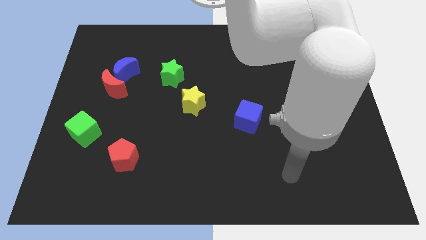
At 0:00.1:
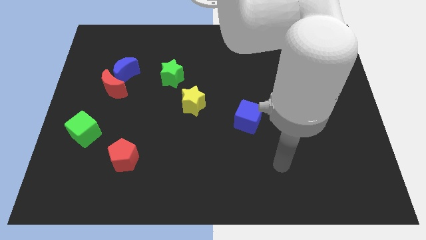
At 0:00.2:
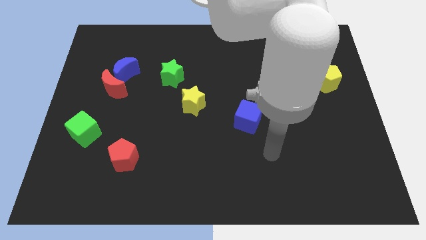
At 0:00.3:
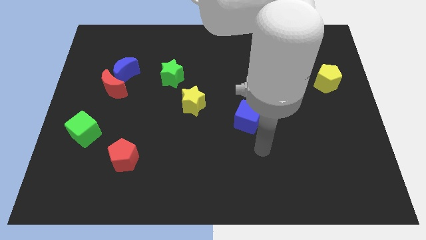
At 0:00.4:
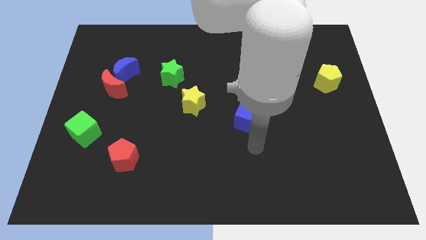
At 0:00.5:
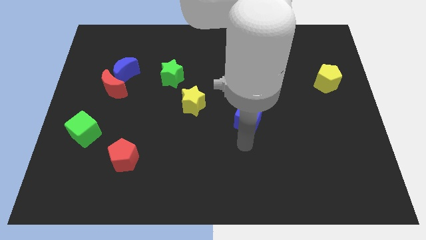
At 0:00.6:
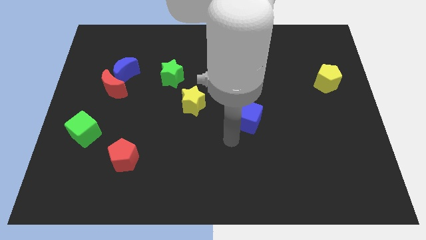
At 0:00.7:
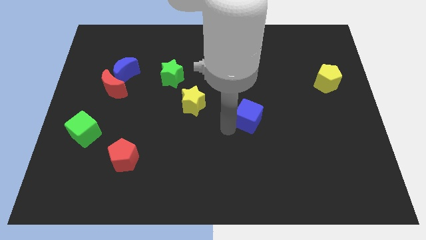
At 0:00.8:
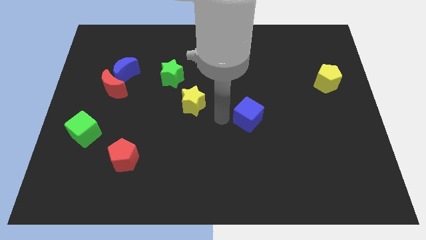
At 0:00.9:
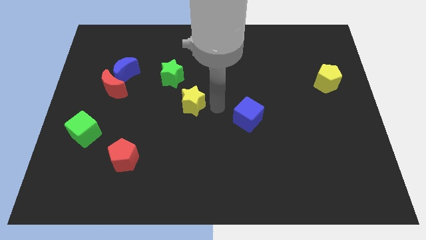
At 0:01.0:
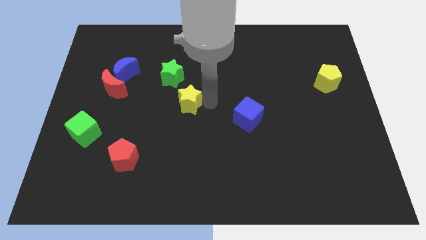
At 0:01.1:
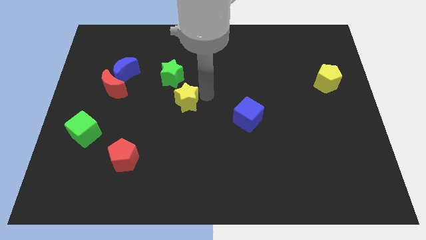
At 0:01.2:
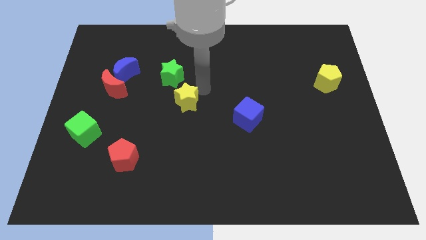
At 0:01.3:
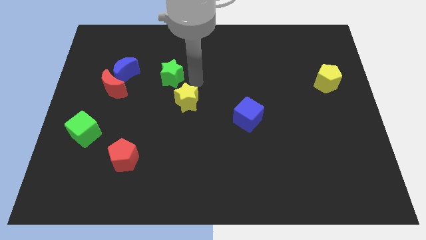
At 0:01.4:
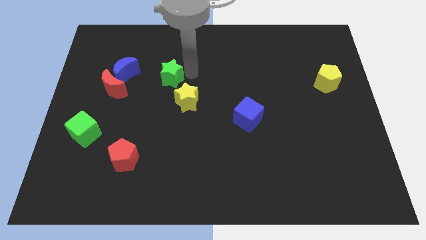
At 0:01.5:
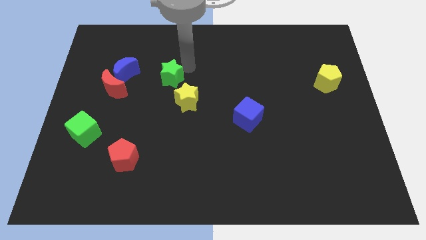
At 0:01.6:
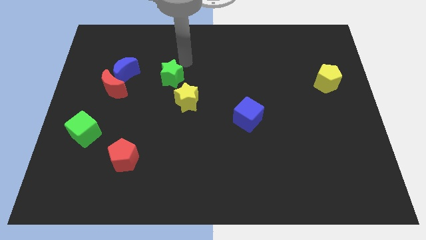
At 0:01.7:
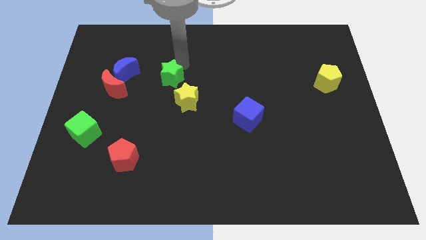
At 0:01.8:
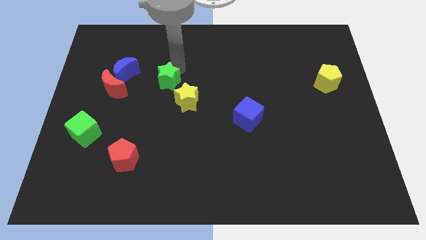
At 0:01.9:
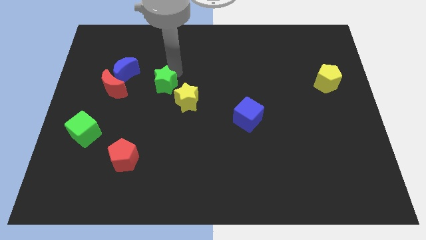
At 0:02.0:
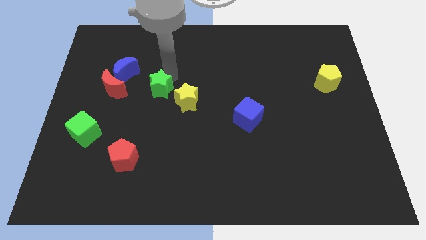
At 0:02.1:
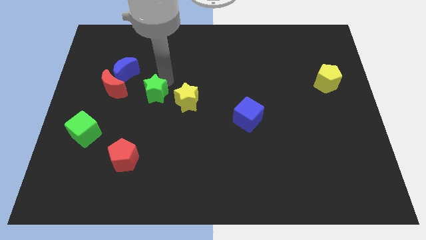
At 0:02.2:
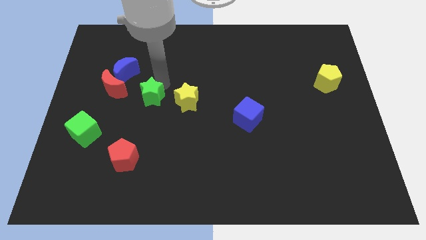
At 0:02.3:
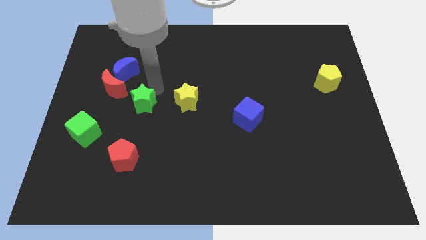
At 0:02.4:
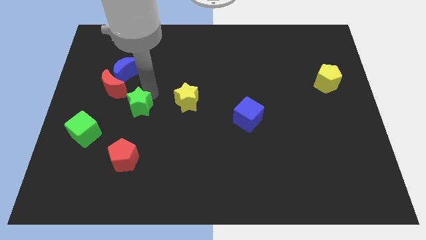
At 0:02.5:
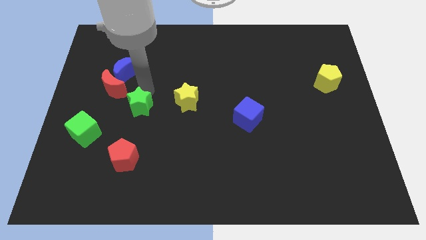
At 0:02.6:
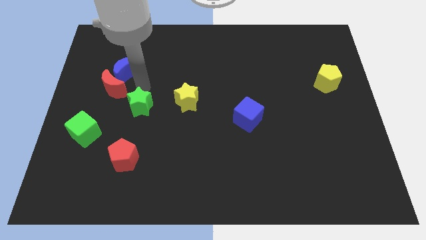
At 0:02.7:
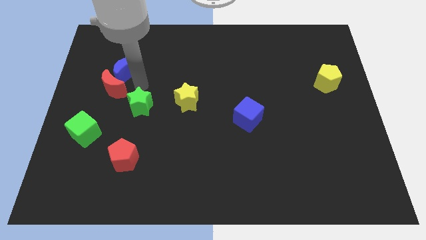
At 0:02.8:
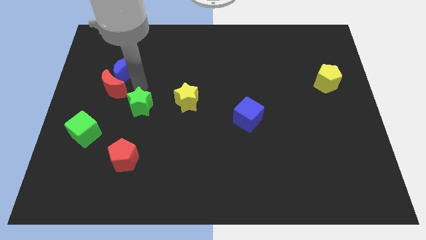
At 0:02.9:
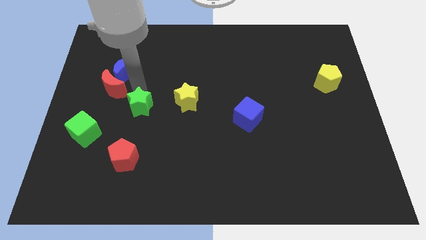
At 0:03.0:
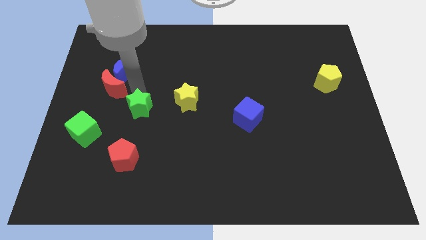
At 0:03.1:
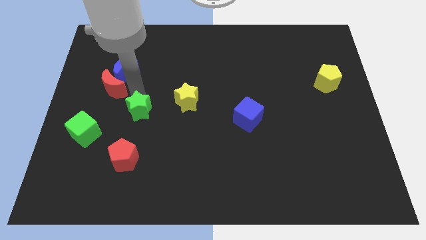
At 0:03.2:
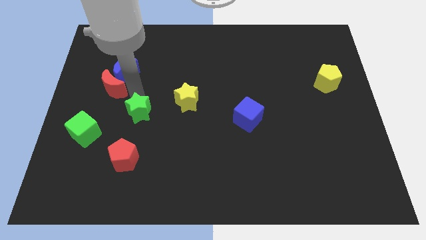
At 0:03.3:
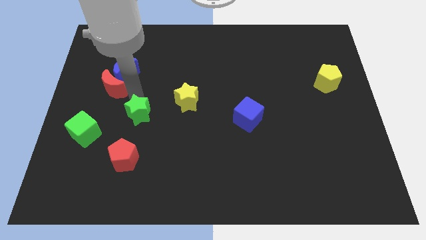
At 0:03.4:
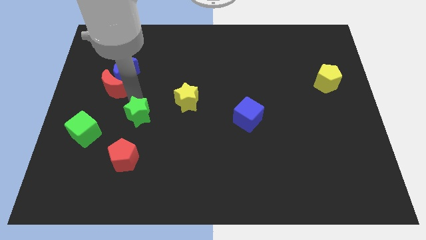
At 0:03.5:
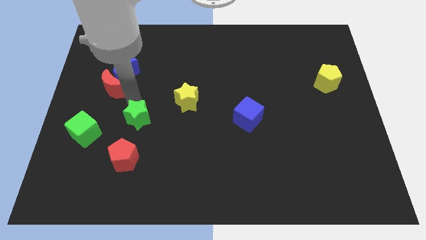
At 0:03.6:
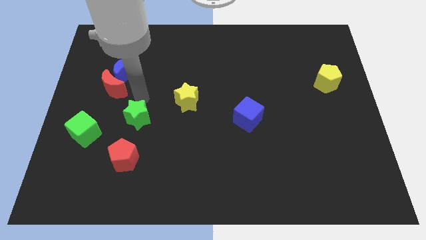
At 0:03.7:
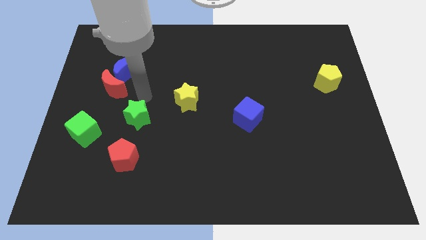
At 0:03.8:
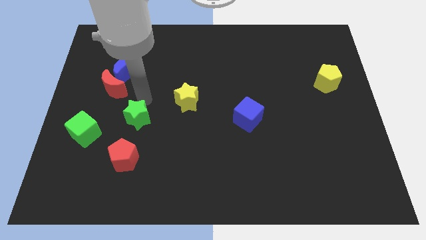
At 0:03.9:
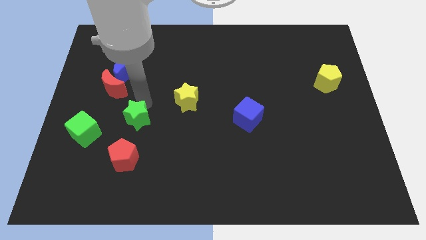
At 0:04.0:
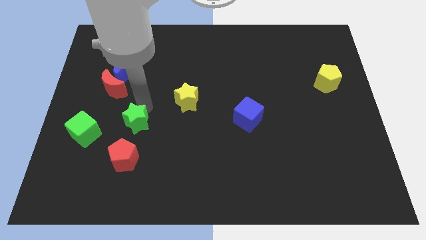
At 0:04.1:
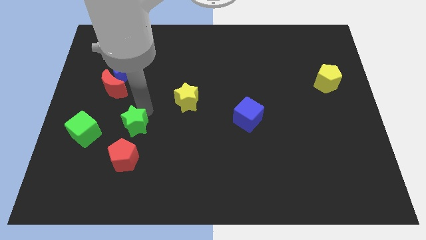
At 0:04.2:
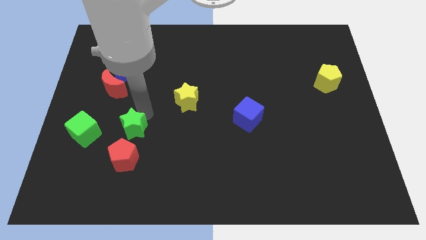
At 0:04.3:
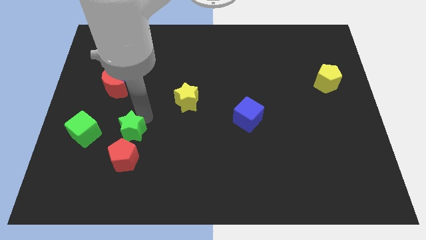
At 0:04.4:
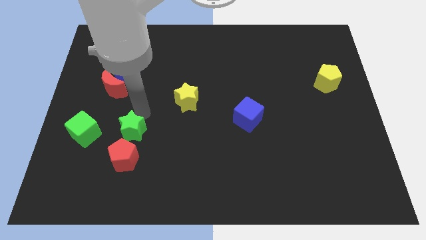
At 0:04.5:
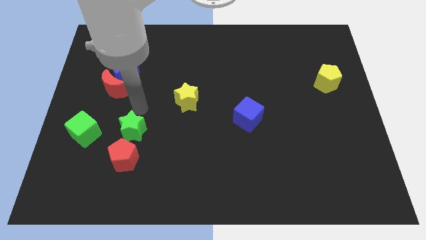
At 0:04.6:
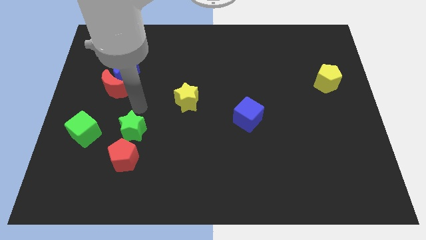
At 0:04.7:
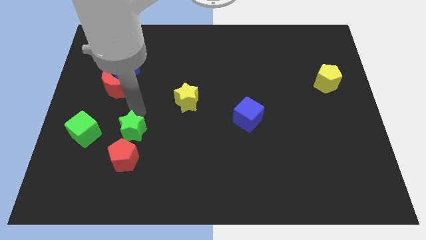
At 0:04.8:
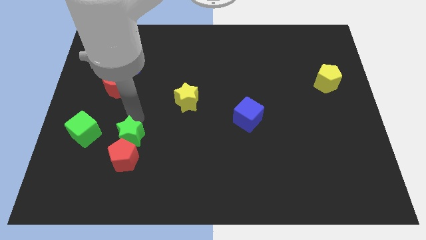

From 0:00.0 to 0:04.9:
push the green star next to the red pentagon

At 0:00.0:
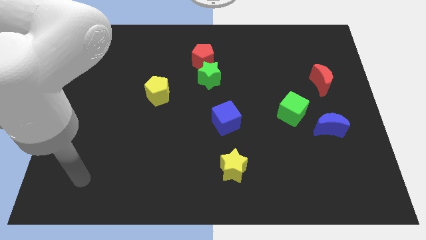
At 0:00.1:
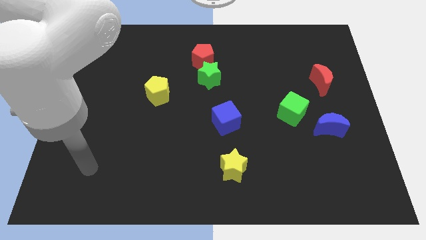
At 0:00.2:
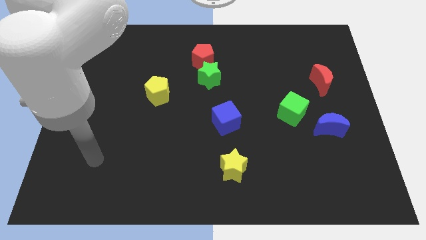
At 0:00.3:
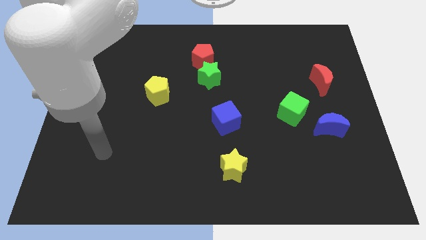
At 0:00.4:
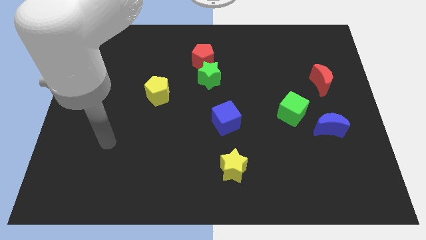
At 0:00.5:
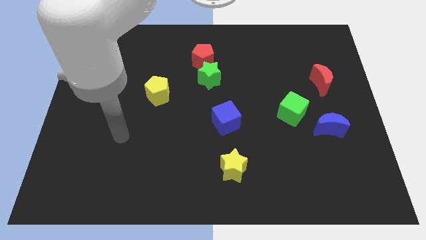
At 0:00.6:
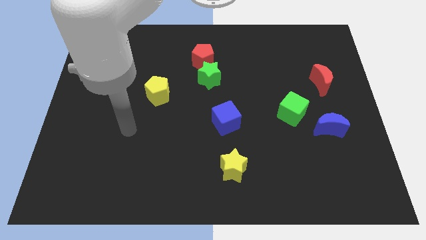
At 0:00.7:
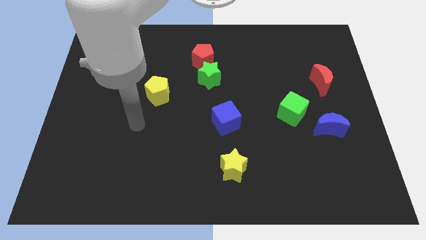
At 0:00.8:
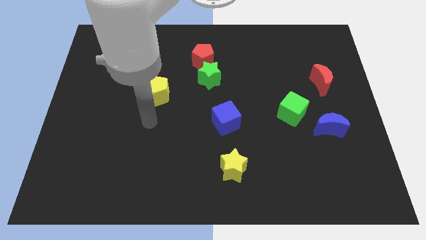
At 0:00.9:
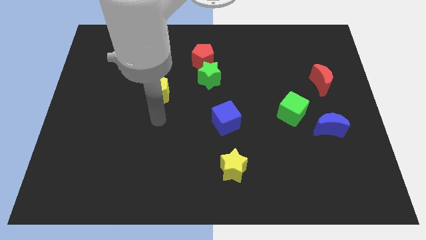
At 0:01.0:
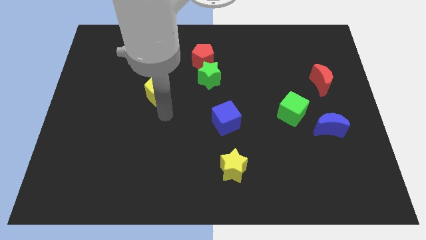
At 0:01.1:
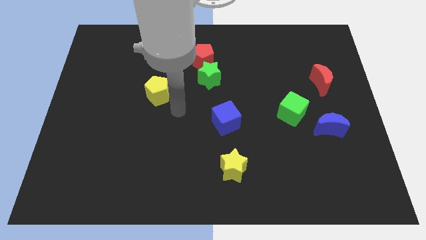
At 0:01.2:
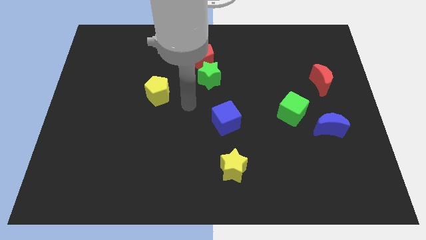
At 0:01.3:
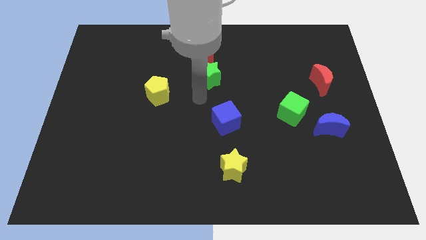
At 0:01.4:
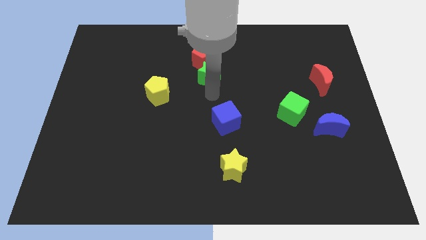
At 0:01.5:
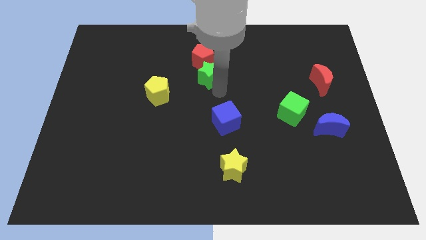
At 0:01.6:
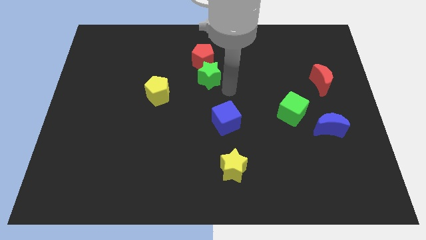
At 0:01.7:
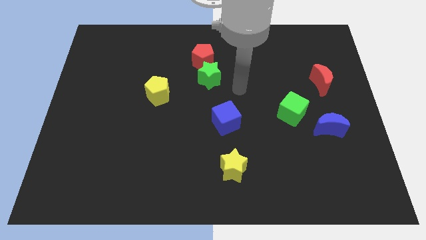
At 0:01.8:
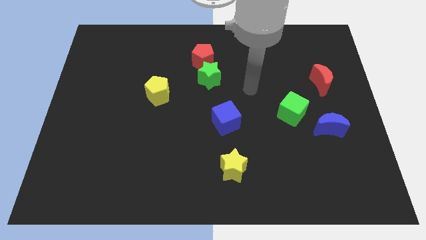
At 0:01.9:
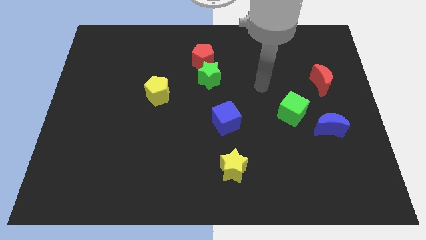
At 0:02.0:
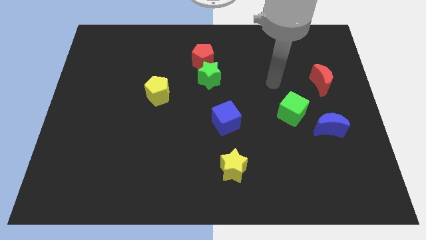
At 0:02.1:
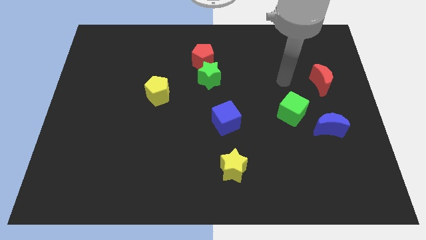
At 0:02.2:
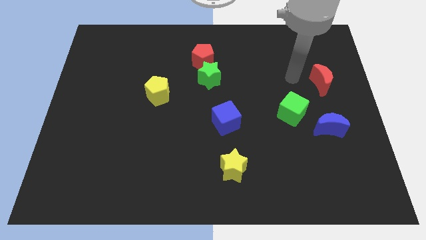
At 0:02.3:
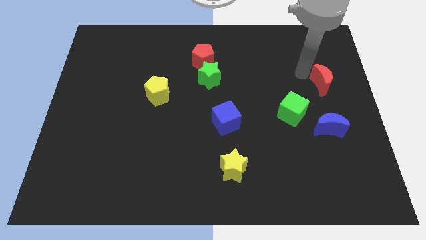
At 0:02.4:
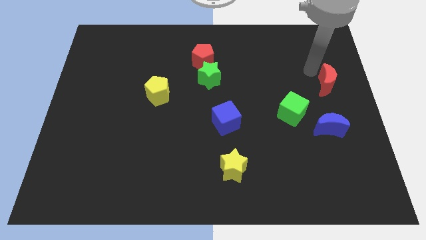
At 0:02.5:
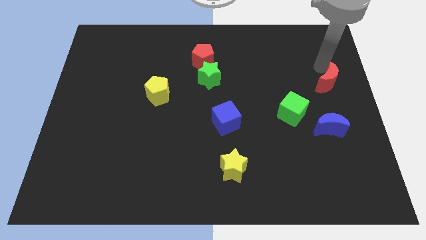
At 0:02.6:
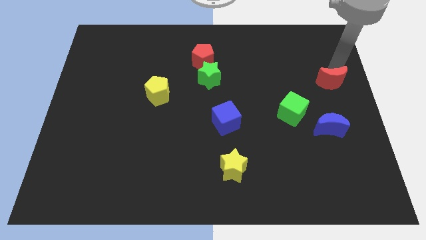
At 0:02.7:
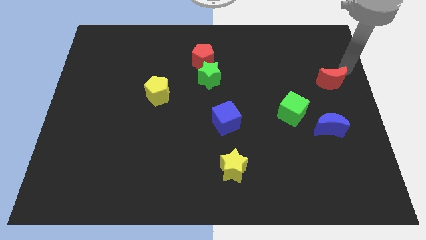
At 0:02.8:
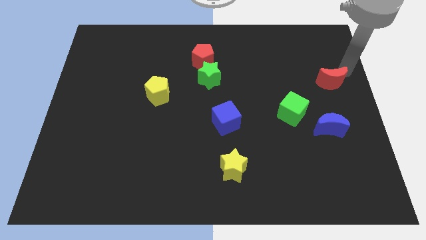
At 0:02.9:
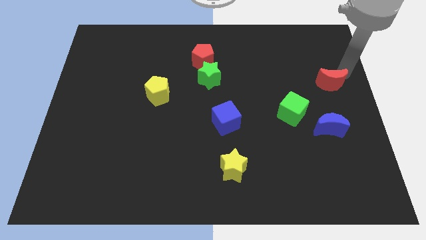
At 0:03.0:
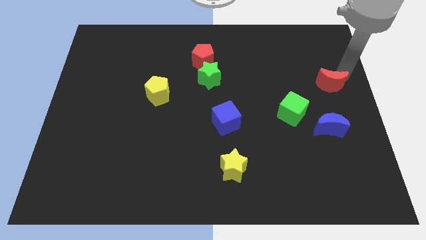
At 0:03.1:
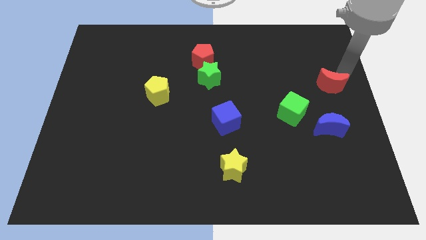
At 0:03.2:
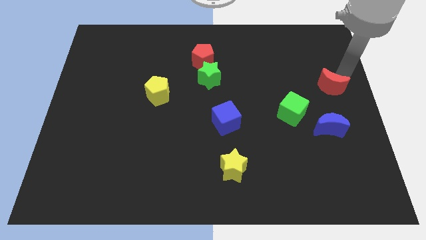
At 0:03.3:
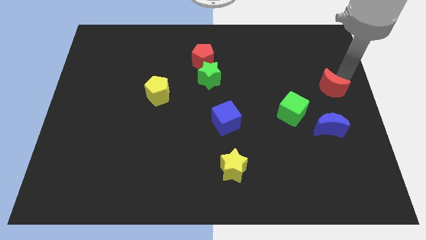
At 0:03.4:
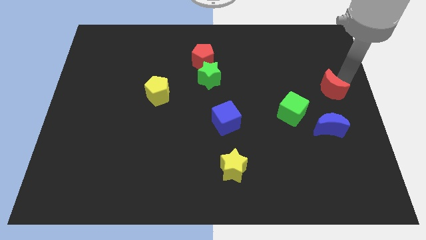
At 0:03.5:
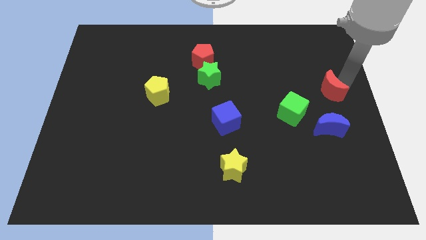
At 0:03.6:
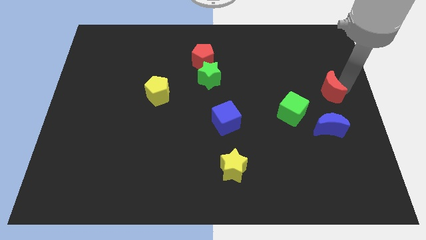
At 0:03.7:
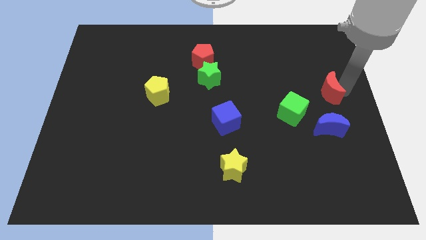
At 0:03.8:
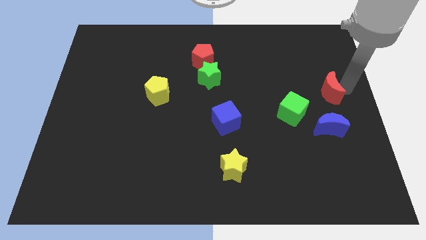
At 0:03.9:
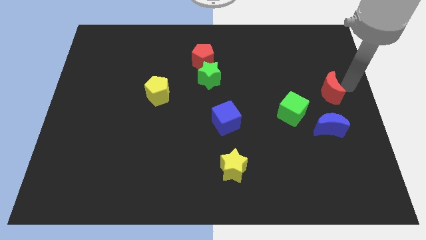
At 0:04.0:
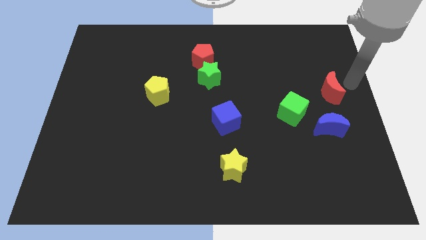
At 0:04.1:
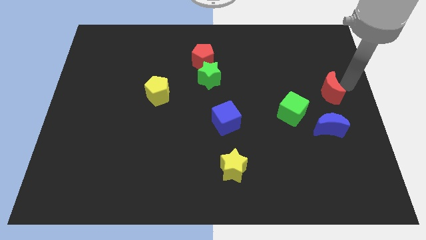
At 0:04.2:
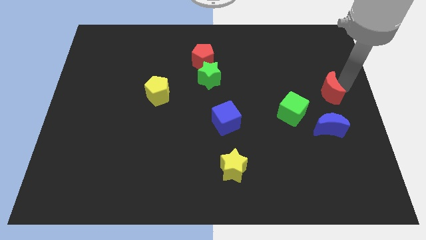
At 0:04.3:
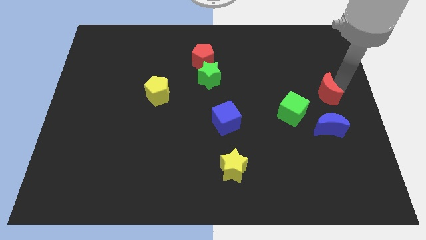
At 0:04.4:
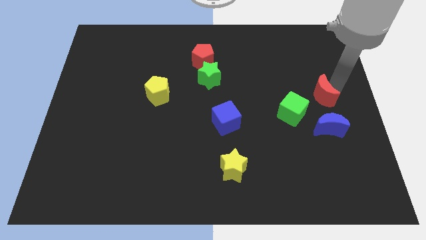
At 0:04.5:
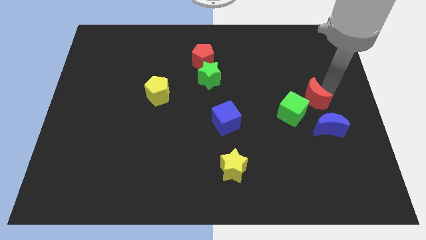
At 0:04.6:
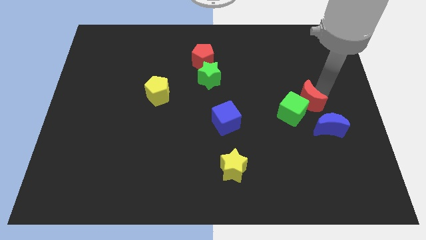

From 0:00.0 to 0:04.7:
slide the red moon towards the green cube
